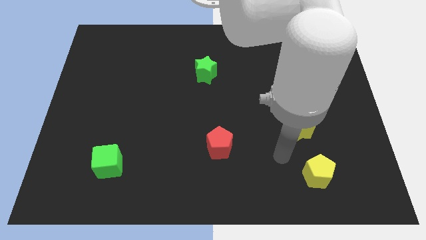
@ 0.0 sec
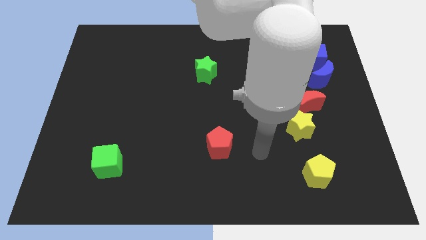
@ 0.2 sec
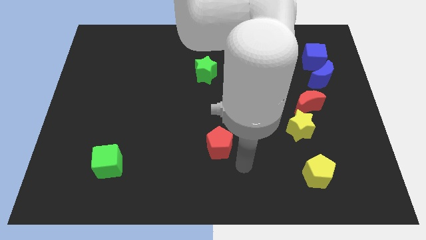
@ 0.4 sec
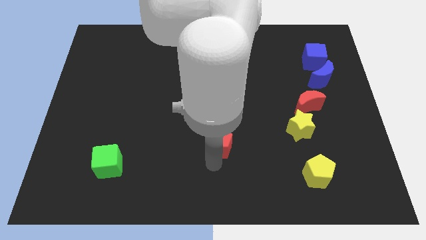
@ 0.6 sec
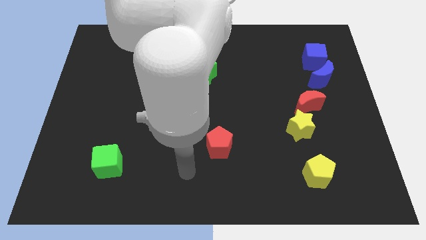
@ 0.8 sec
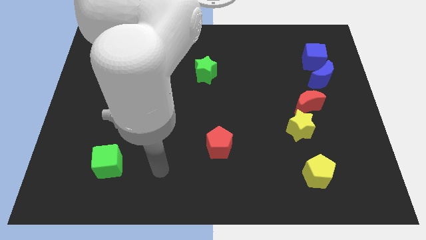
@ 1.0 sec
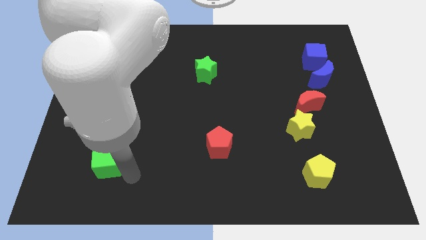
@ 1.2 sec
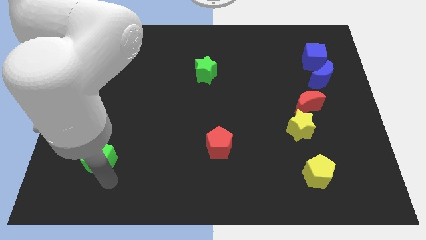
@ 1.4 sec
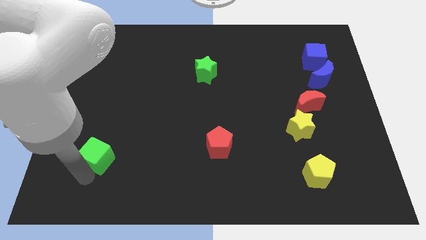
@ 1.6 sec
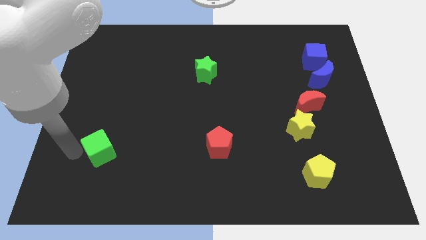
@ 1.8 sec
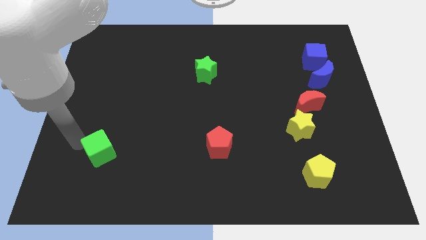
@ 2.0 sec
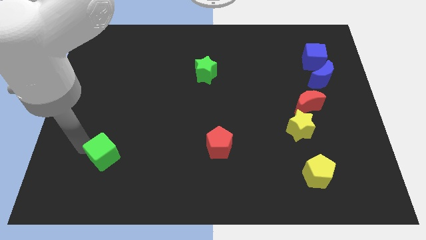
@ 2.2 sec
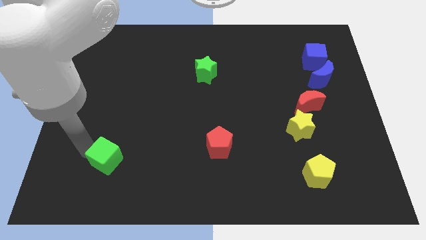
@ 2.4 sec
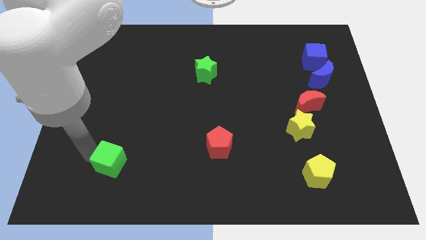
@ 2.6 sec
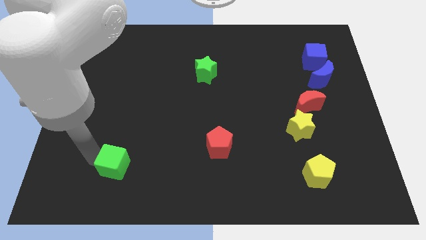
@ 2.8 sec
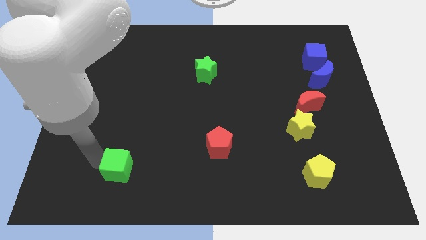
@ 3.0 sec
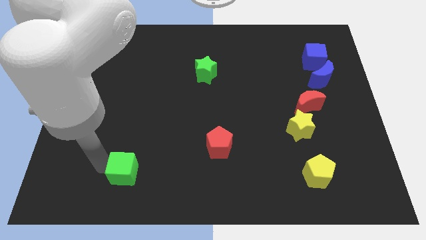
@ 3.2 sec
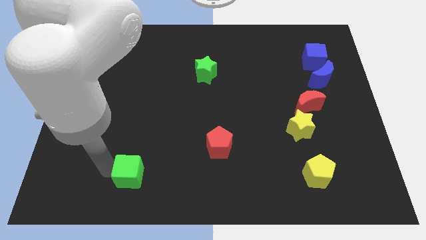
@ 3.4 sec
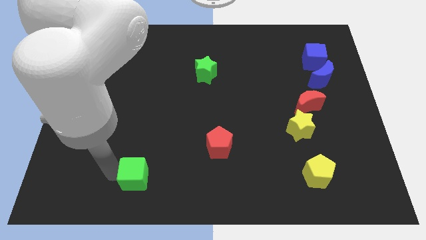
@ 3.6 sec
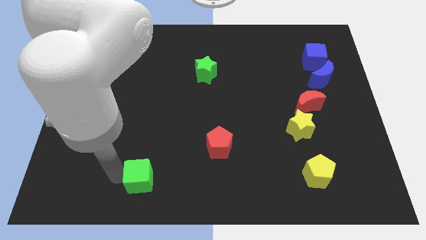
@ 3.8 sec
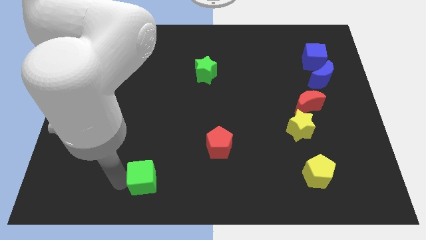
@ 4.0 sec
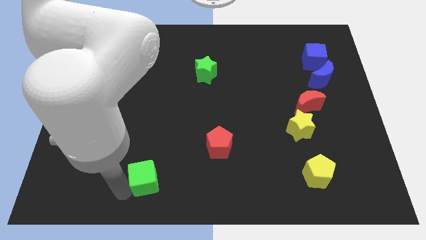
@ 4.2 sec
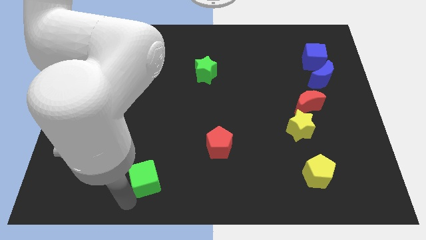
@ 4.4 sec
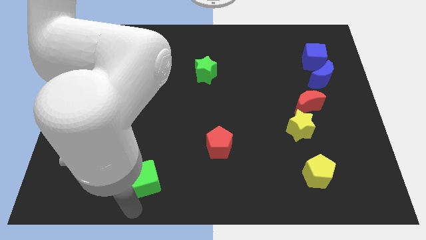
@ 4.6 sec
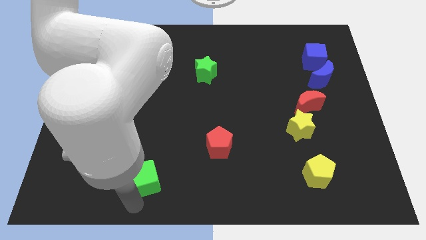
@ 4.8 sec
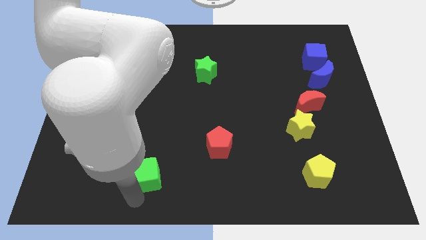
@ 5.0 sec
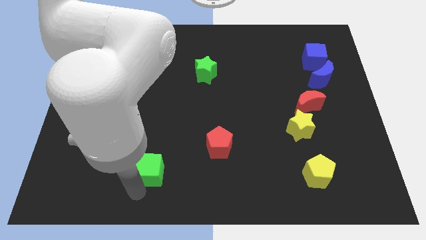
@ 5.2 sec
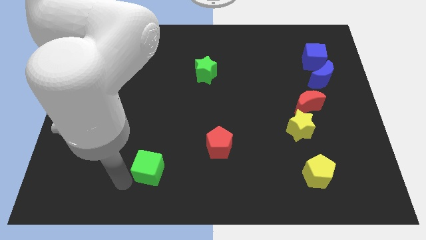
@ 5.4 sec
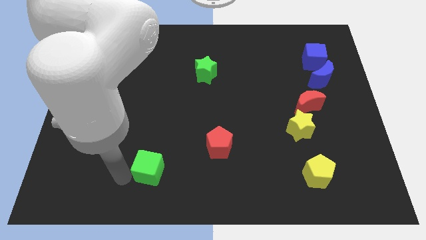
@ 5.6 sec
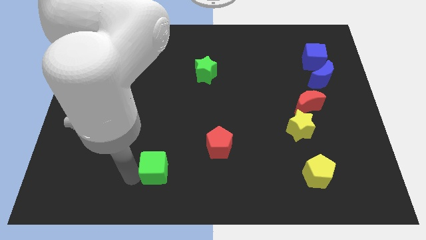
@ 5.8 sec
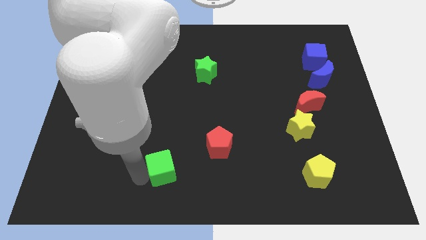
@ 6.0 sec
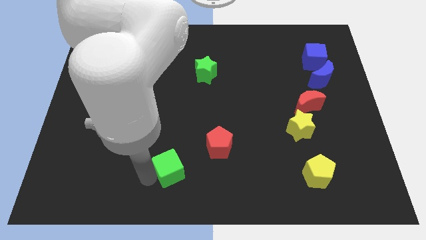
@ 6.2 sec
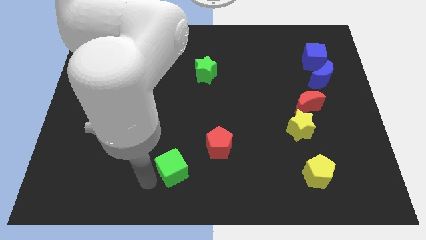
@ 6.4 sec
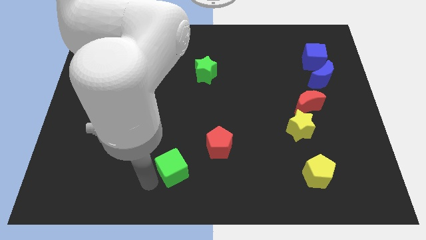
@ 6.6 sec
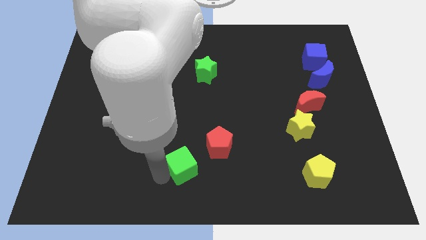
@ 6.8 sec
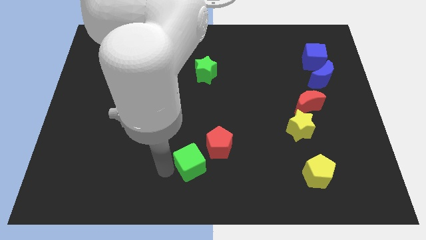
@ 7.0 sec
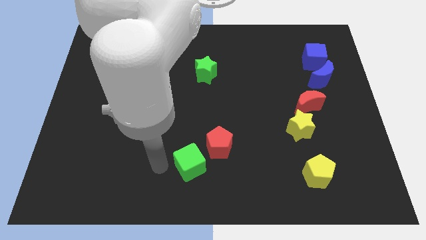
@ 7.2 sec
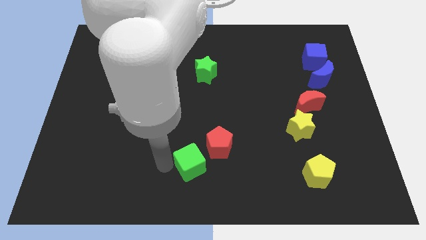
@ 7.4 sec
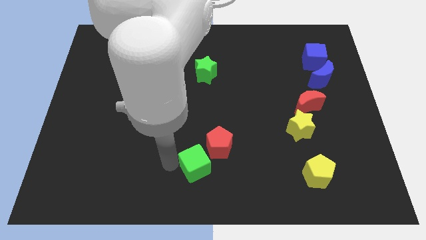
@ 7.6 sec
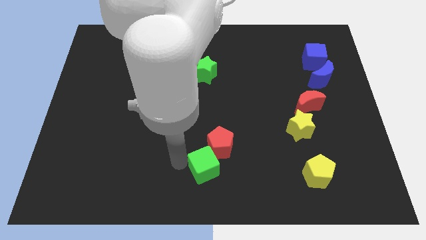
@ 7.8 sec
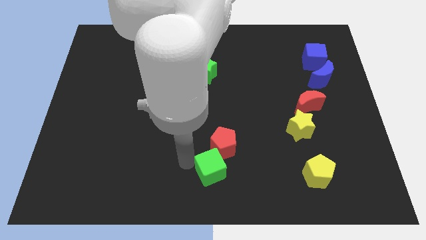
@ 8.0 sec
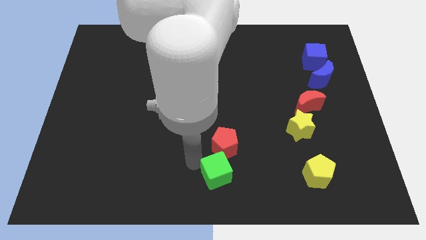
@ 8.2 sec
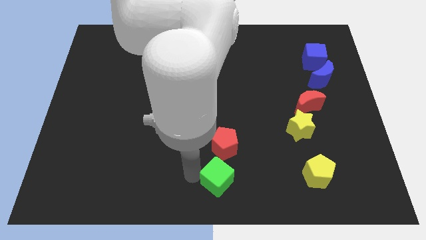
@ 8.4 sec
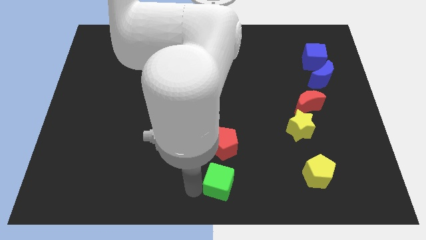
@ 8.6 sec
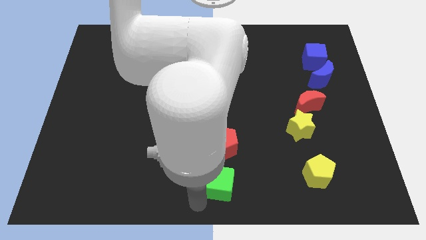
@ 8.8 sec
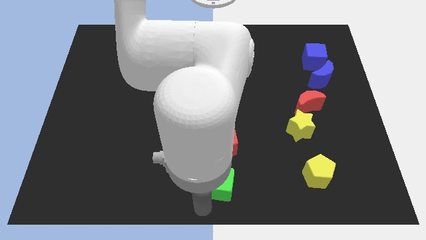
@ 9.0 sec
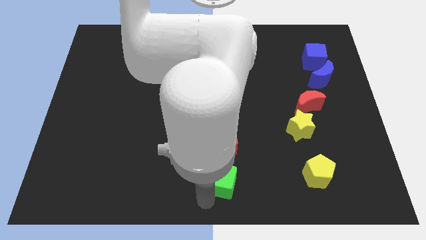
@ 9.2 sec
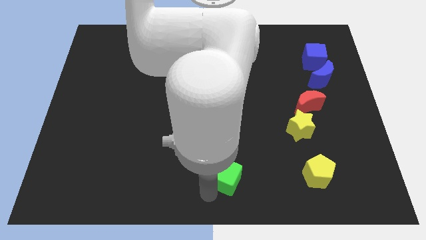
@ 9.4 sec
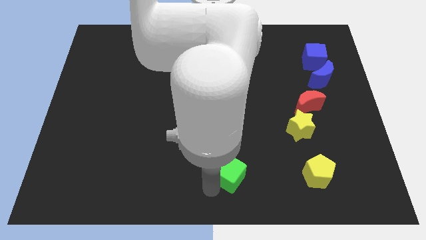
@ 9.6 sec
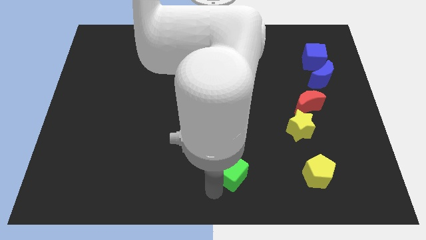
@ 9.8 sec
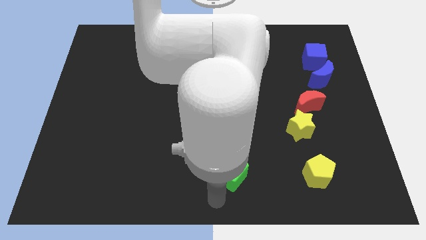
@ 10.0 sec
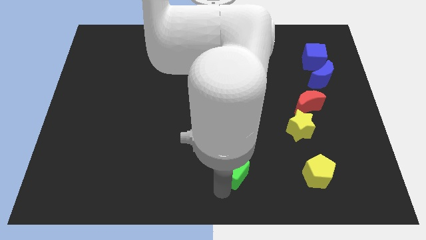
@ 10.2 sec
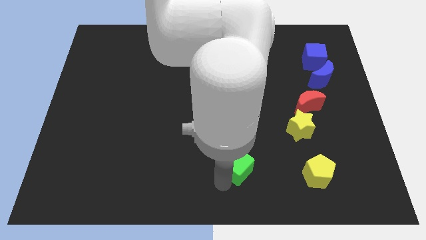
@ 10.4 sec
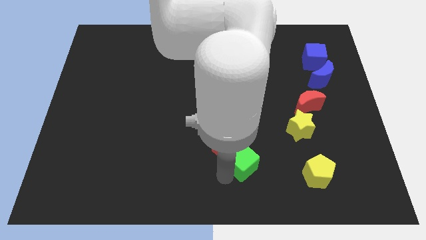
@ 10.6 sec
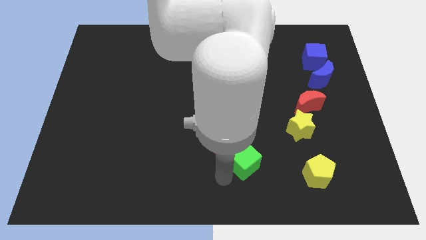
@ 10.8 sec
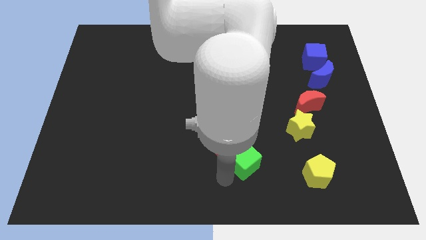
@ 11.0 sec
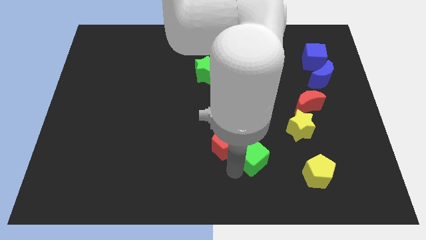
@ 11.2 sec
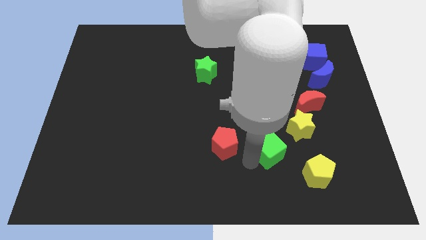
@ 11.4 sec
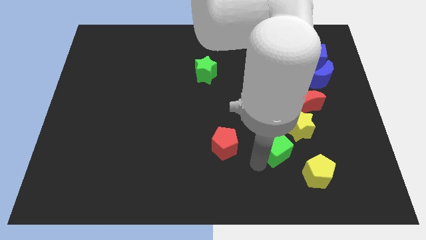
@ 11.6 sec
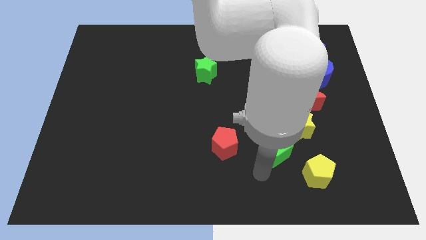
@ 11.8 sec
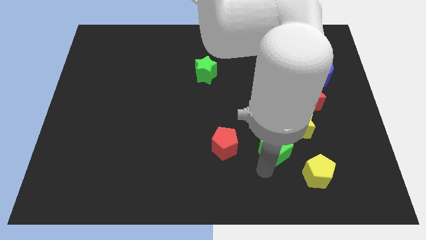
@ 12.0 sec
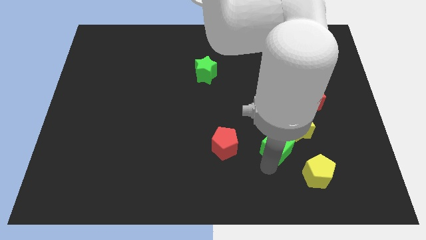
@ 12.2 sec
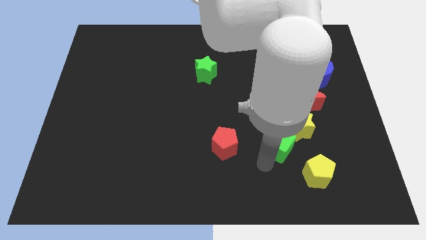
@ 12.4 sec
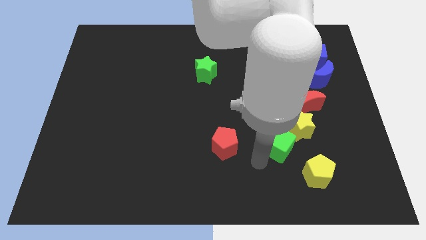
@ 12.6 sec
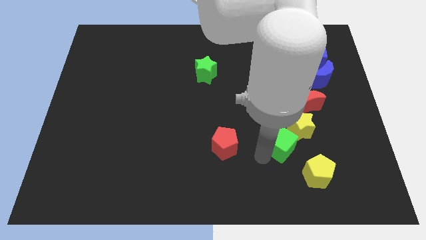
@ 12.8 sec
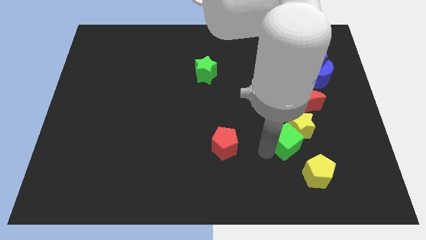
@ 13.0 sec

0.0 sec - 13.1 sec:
slide the green cube towards the yellow star

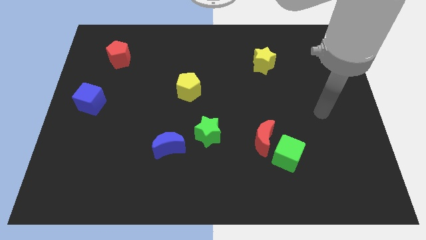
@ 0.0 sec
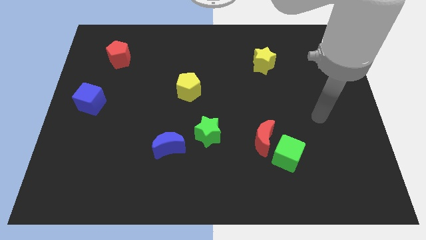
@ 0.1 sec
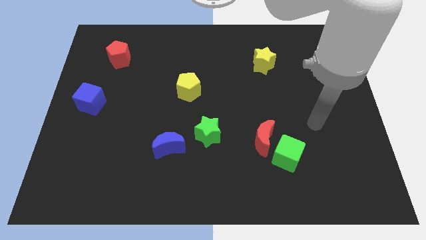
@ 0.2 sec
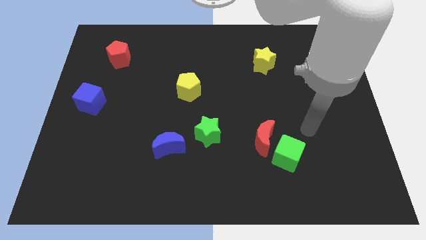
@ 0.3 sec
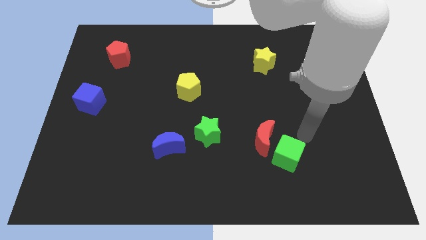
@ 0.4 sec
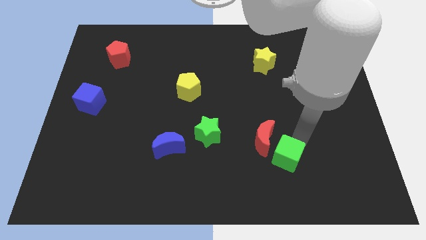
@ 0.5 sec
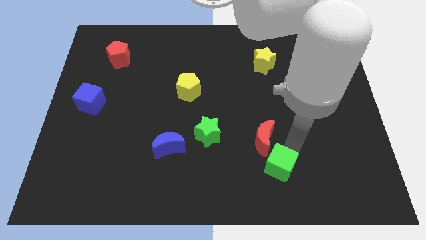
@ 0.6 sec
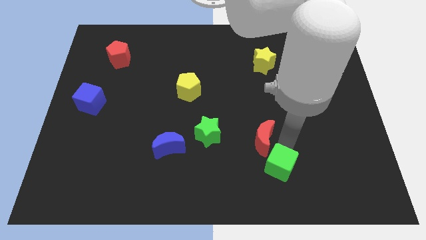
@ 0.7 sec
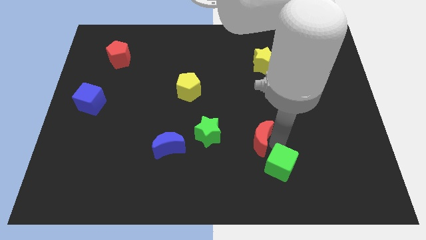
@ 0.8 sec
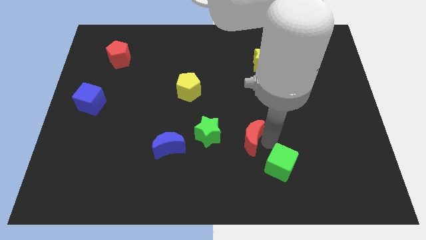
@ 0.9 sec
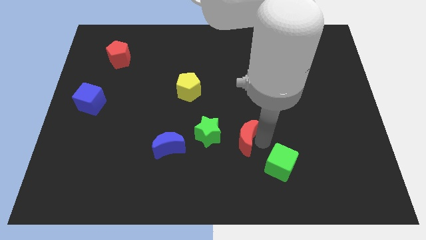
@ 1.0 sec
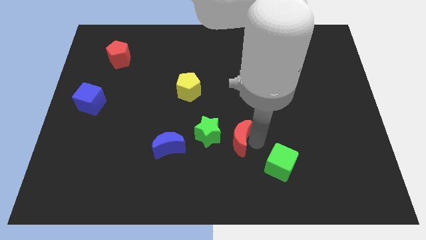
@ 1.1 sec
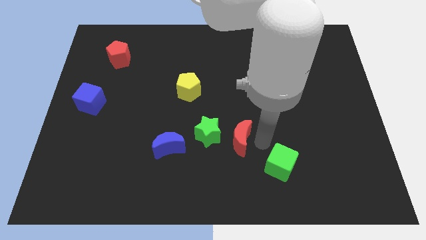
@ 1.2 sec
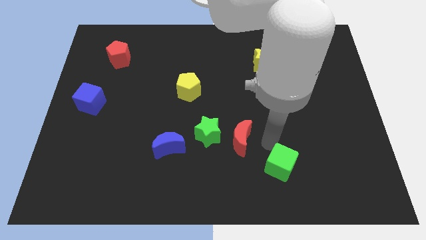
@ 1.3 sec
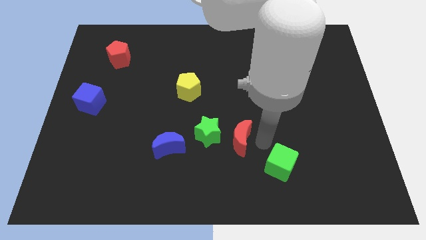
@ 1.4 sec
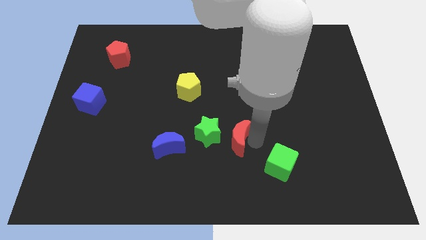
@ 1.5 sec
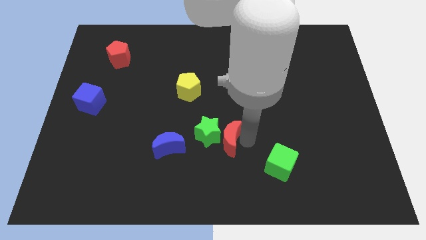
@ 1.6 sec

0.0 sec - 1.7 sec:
slide the red moon towards the green star
